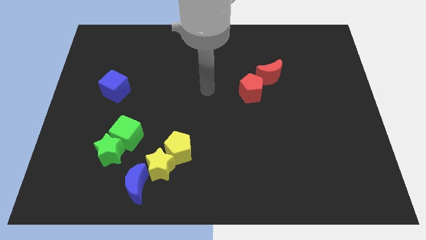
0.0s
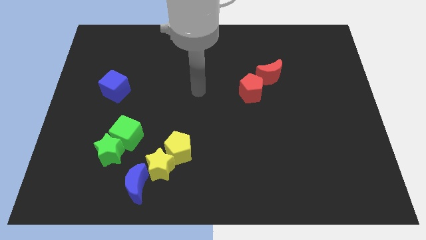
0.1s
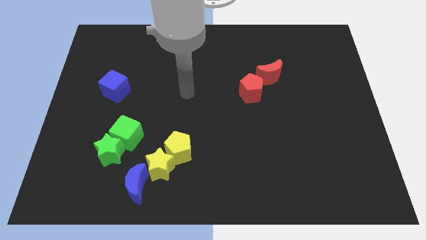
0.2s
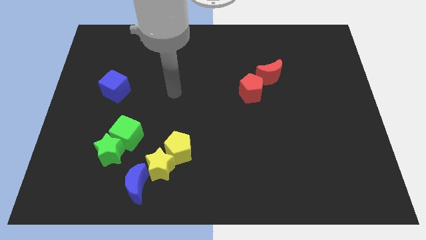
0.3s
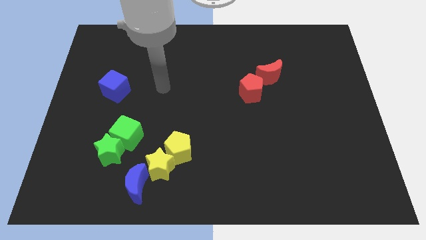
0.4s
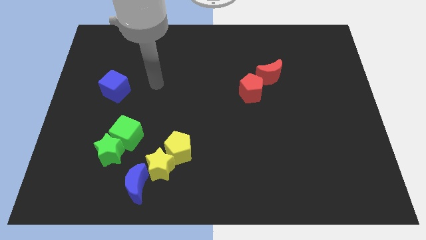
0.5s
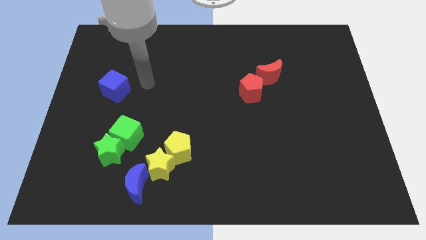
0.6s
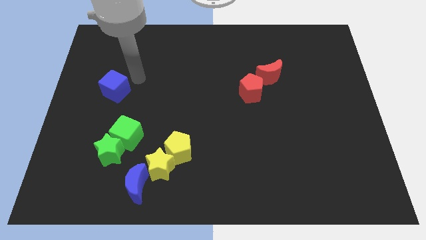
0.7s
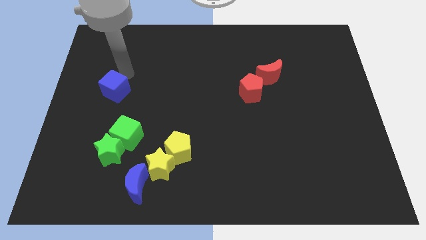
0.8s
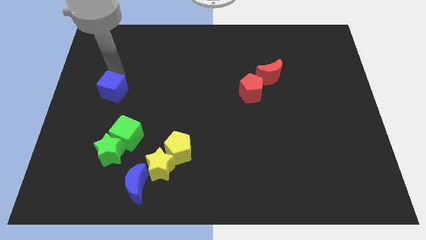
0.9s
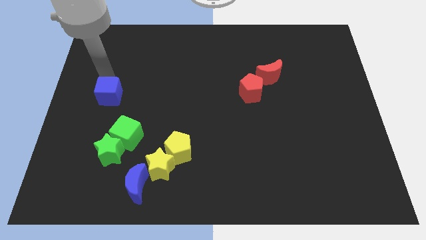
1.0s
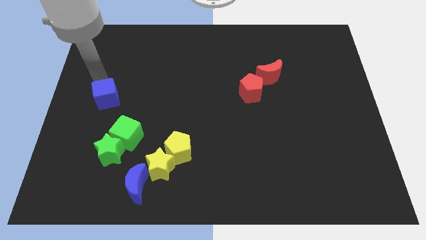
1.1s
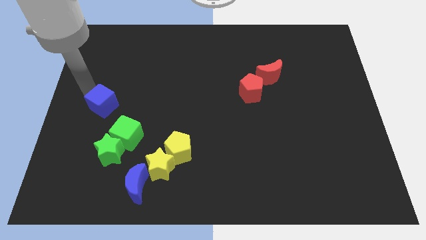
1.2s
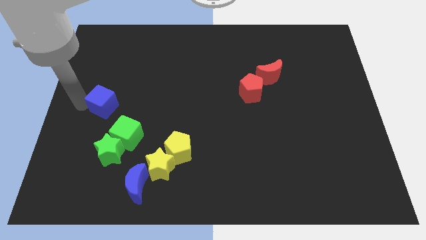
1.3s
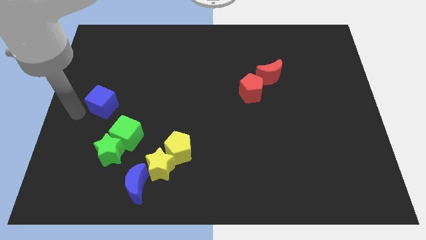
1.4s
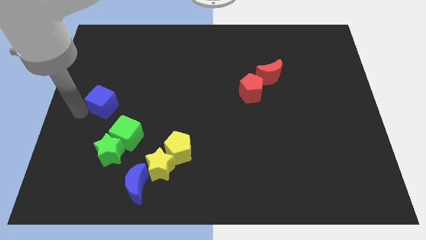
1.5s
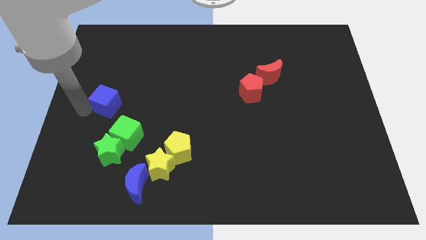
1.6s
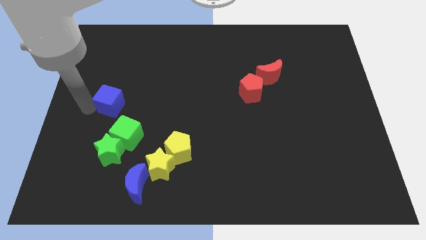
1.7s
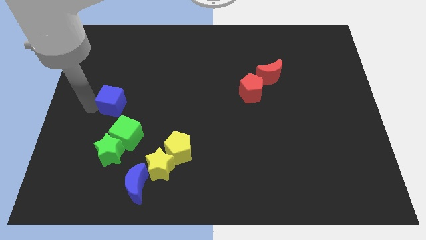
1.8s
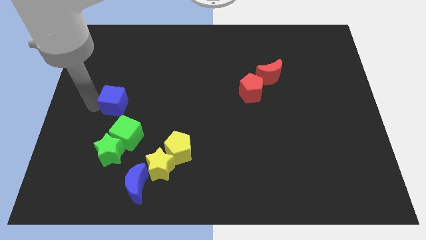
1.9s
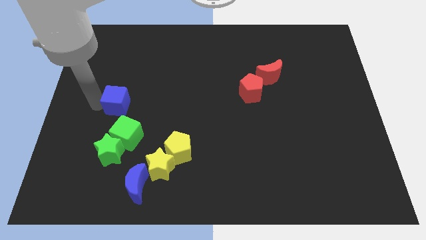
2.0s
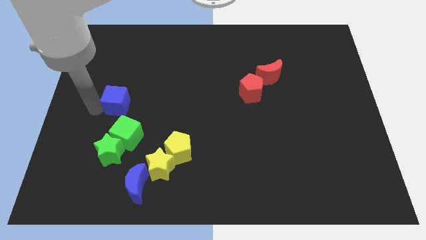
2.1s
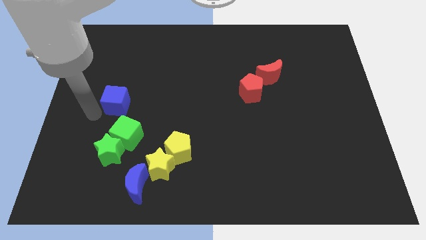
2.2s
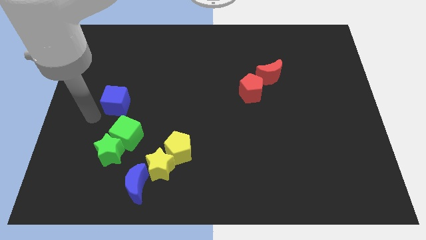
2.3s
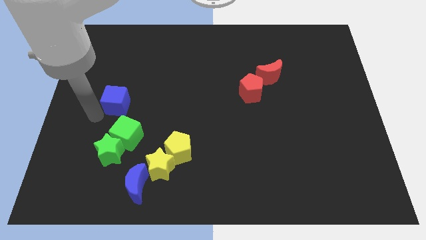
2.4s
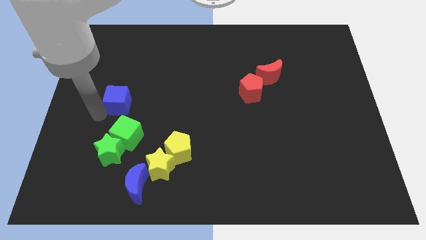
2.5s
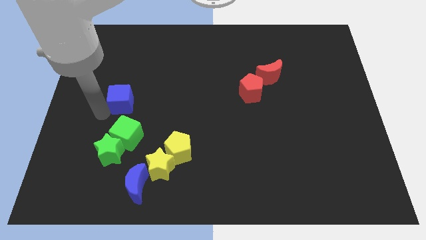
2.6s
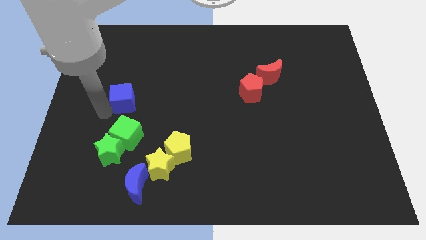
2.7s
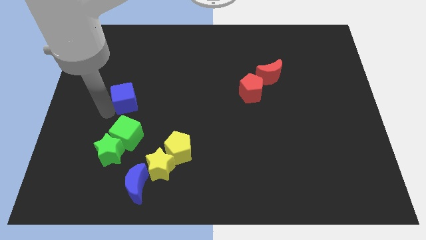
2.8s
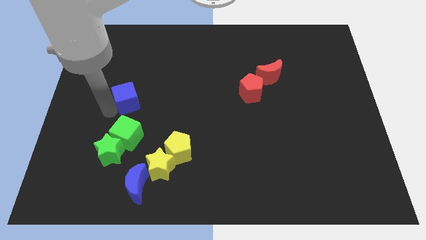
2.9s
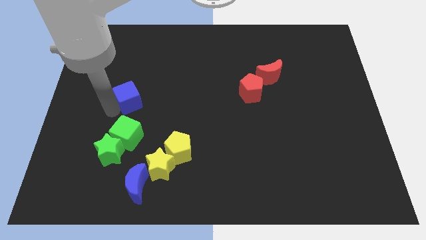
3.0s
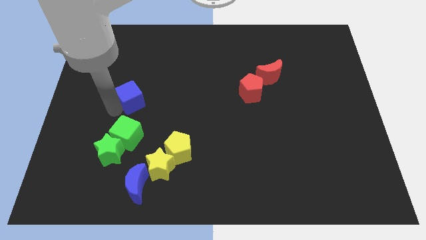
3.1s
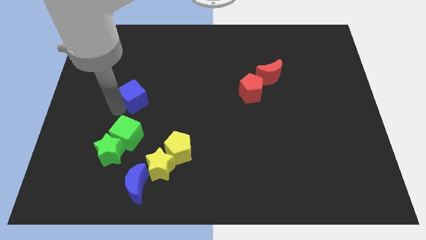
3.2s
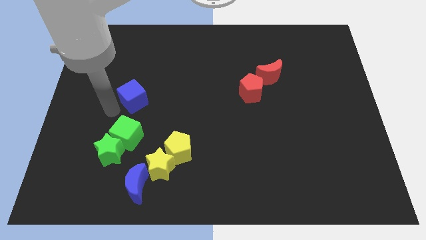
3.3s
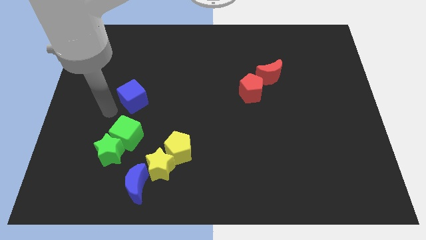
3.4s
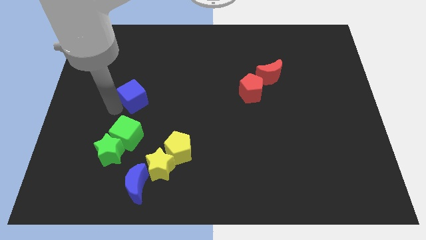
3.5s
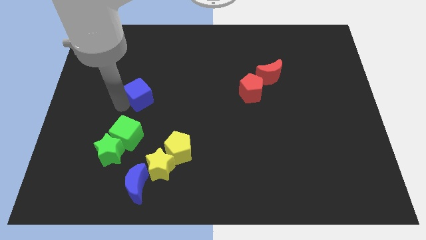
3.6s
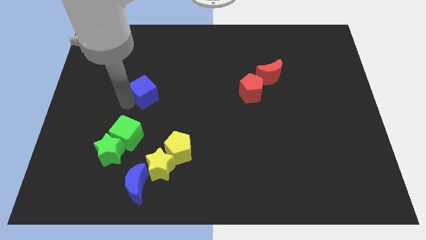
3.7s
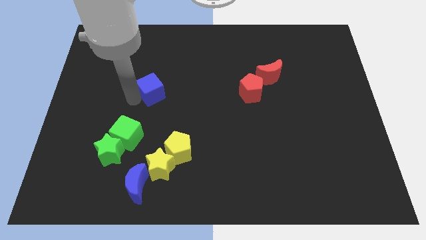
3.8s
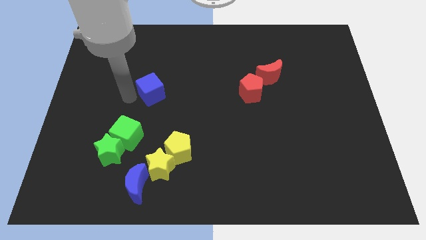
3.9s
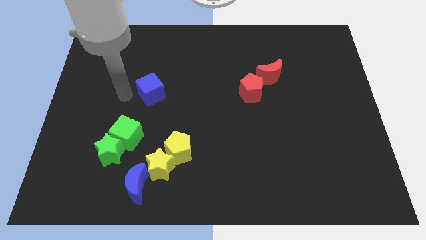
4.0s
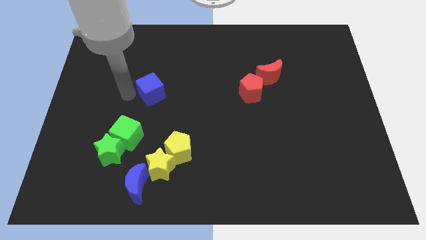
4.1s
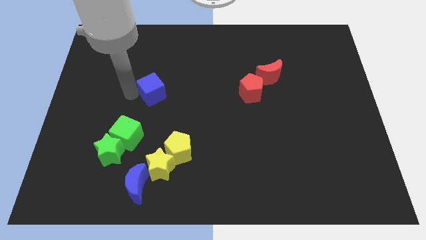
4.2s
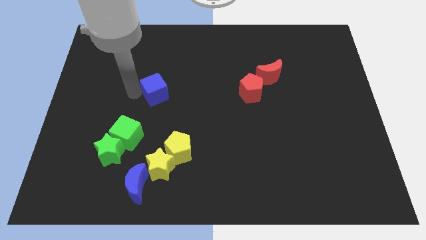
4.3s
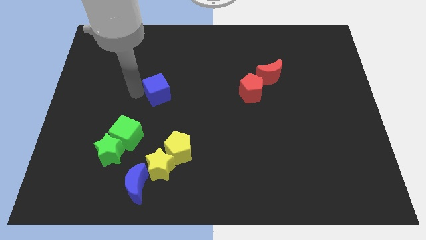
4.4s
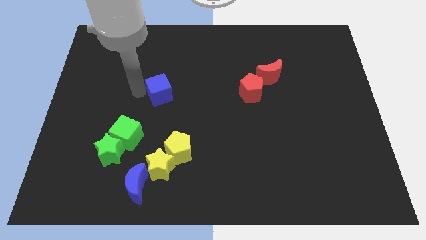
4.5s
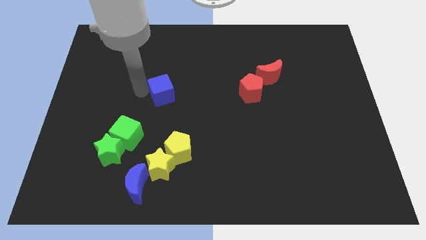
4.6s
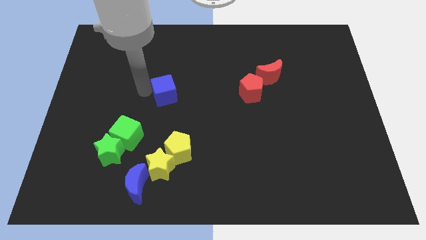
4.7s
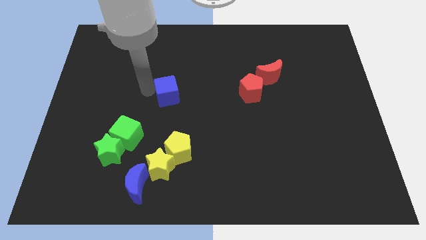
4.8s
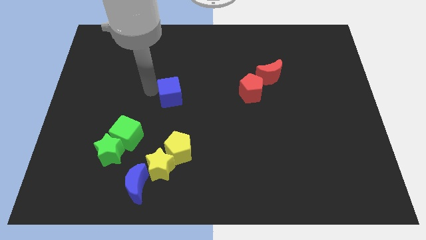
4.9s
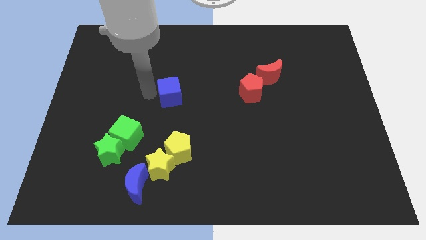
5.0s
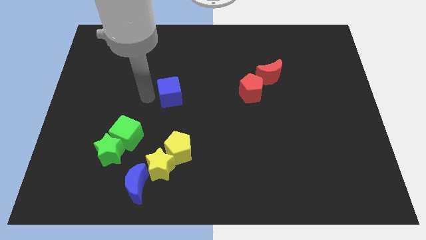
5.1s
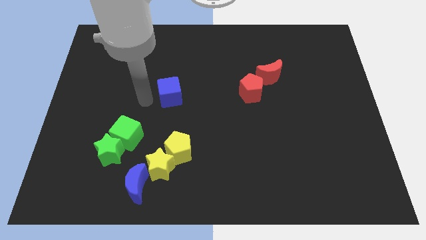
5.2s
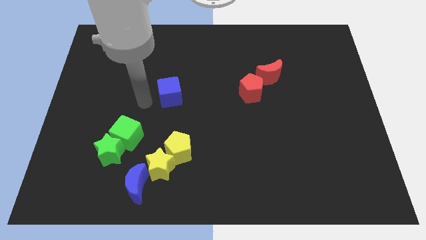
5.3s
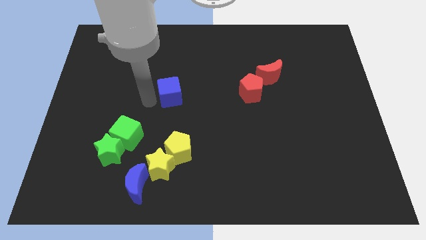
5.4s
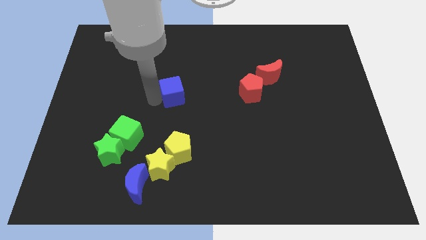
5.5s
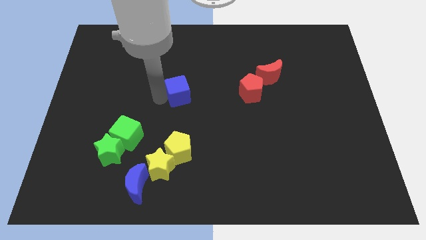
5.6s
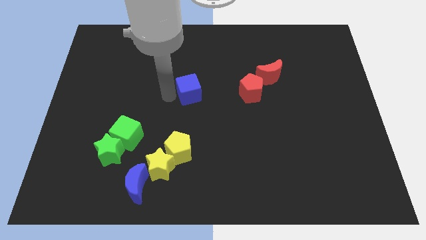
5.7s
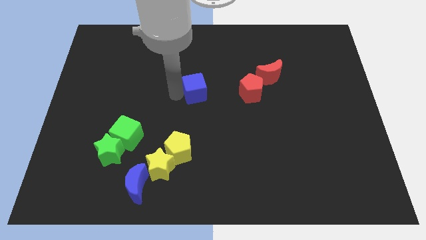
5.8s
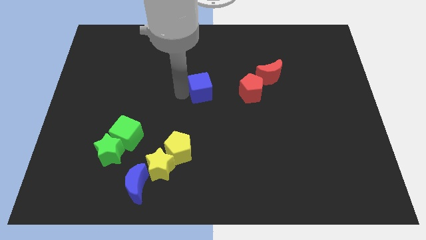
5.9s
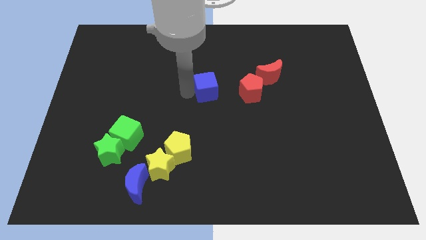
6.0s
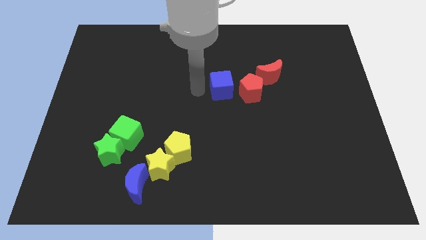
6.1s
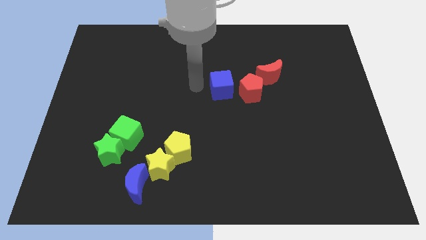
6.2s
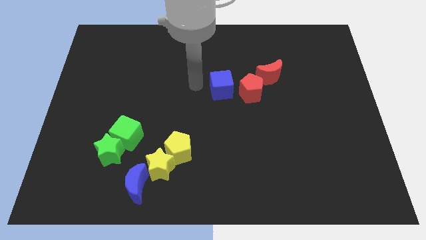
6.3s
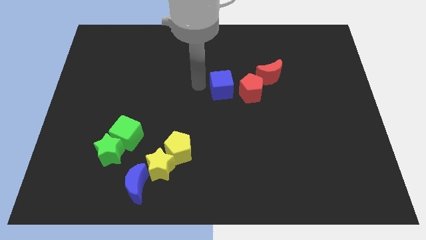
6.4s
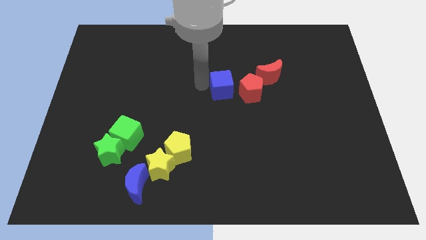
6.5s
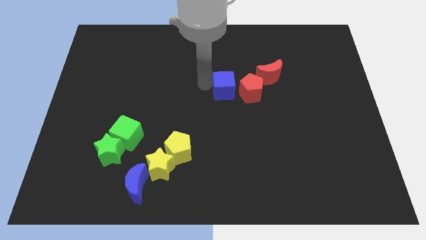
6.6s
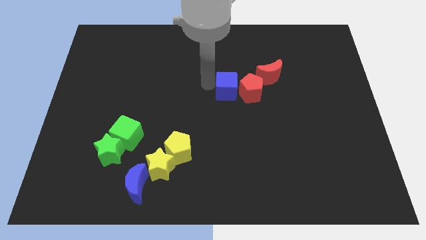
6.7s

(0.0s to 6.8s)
slide the blue cube to the red pentagon
